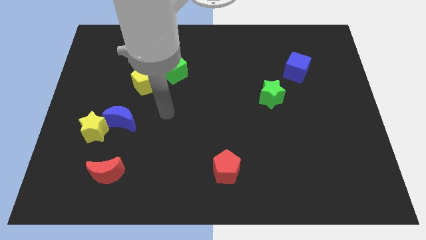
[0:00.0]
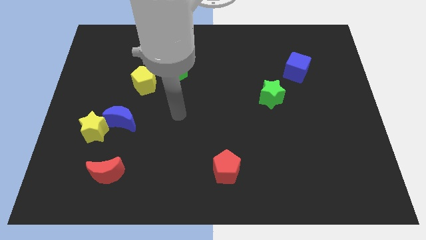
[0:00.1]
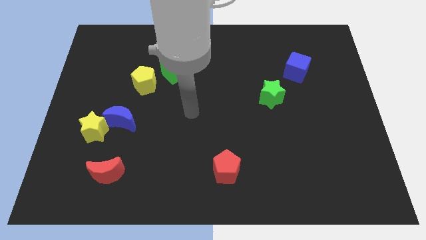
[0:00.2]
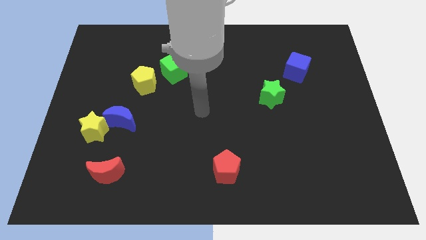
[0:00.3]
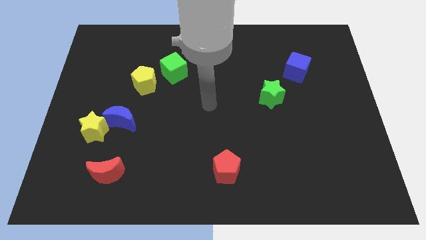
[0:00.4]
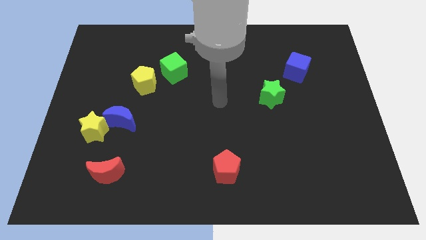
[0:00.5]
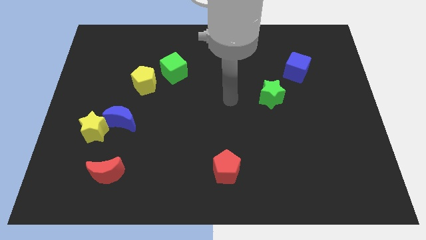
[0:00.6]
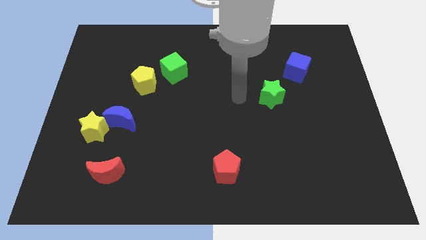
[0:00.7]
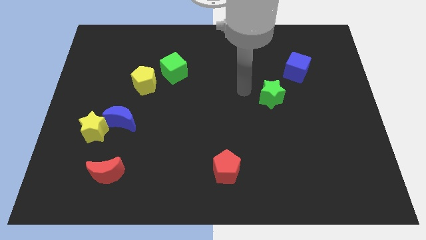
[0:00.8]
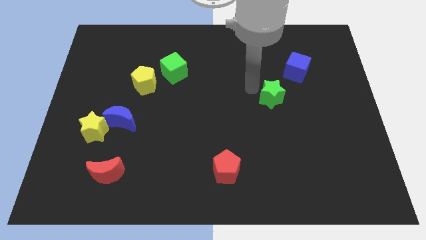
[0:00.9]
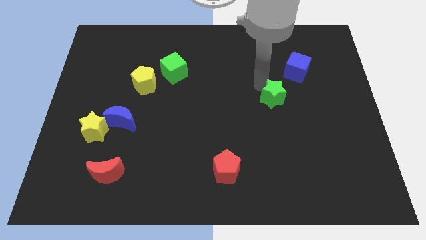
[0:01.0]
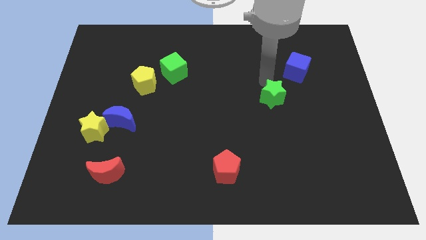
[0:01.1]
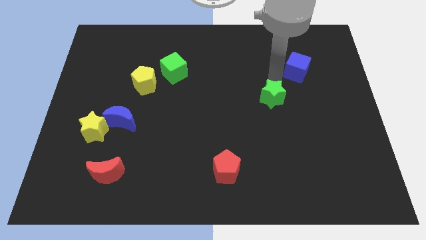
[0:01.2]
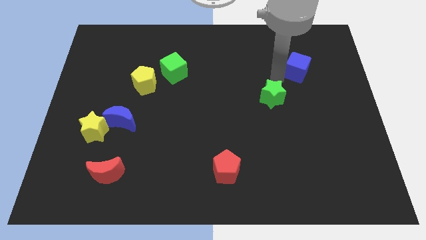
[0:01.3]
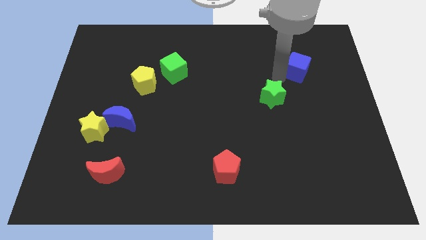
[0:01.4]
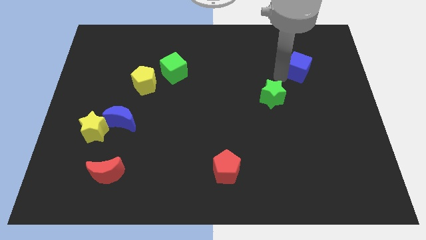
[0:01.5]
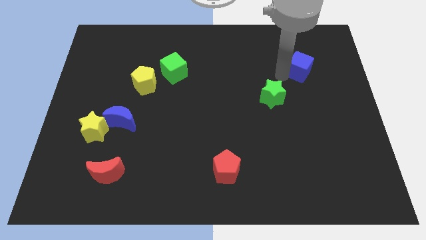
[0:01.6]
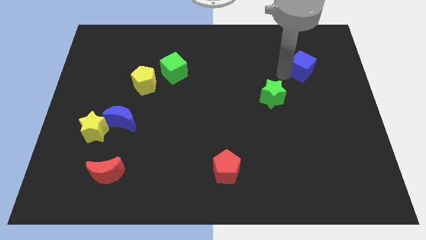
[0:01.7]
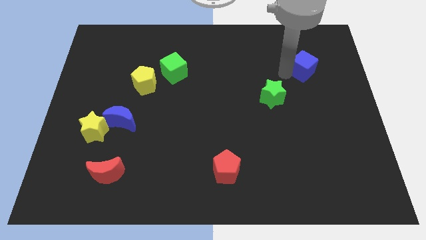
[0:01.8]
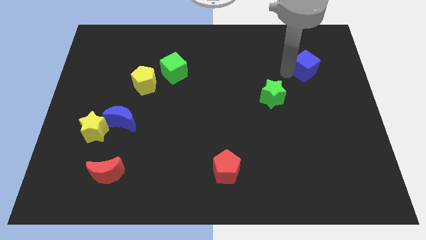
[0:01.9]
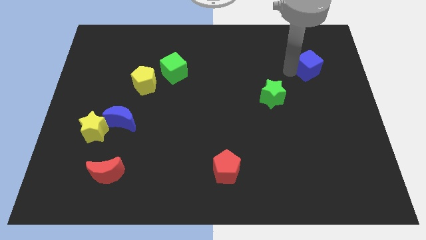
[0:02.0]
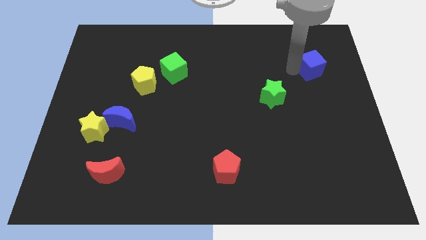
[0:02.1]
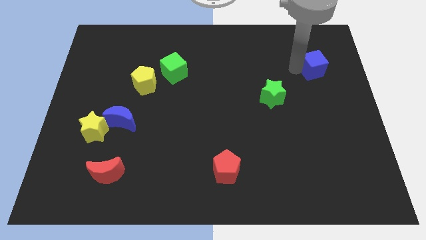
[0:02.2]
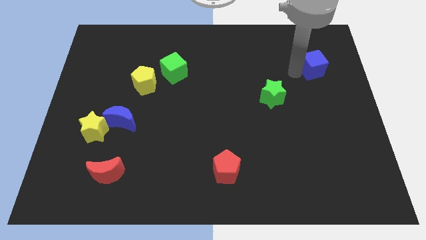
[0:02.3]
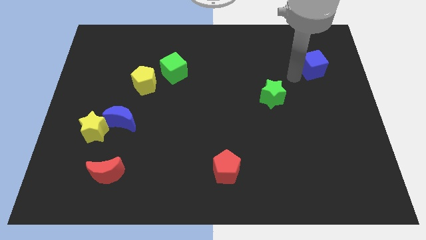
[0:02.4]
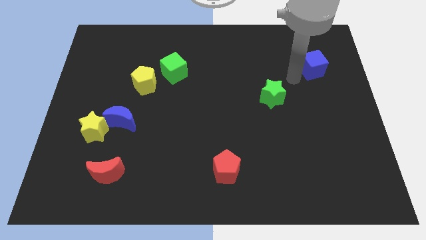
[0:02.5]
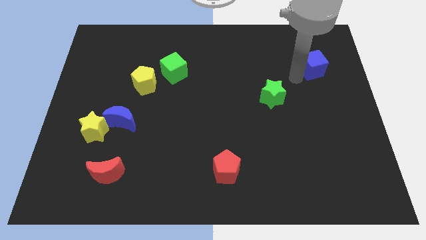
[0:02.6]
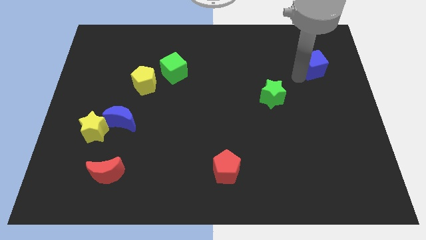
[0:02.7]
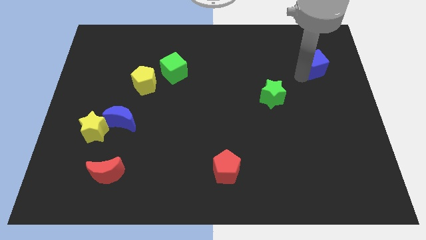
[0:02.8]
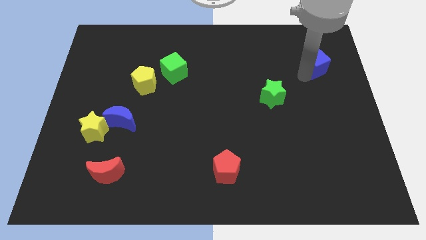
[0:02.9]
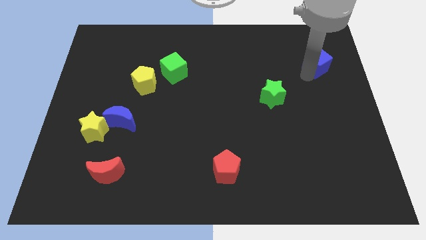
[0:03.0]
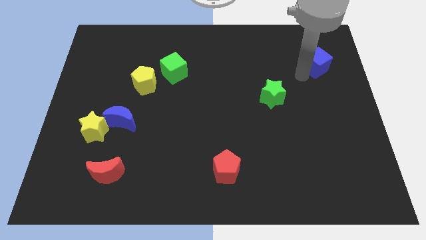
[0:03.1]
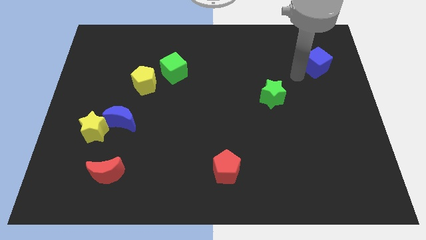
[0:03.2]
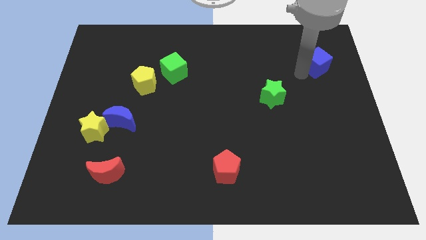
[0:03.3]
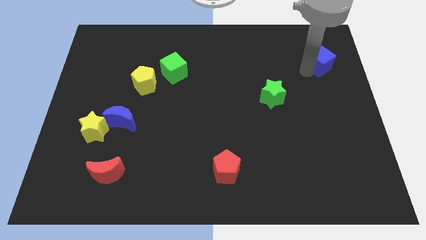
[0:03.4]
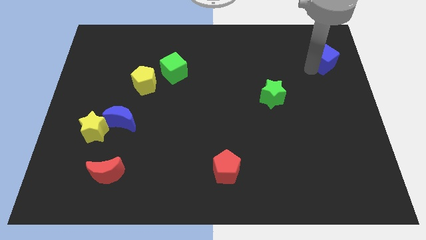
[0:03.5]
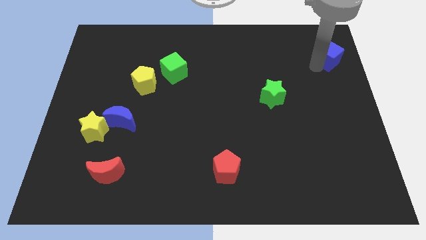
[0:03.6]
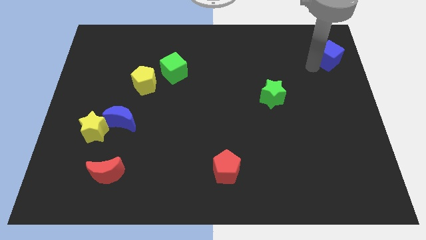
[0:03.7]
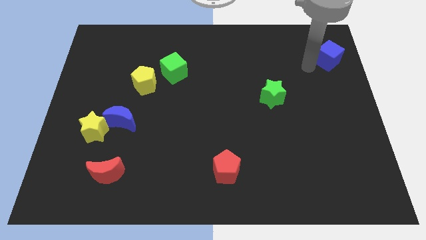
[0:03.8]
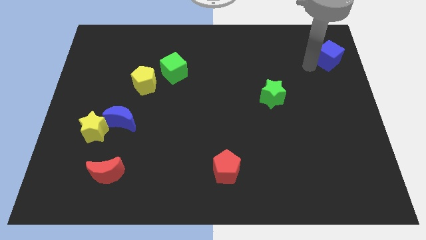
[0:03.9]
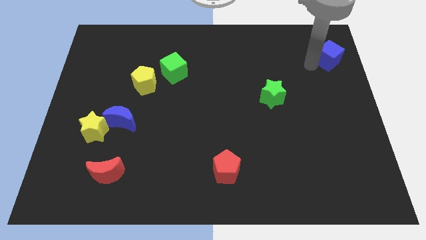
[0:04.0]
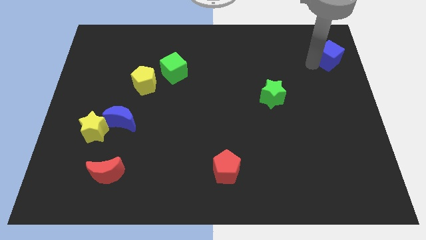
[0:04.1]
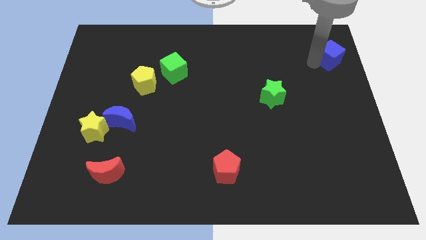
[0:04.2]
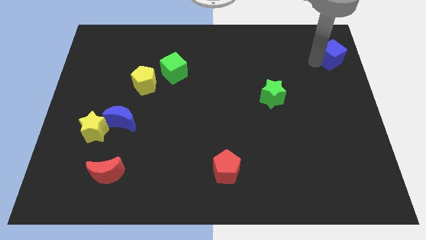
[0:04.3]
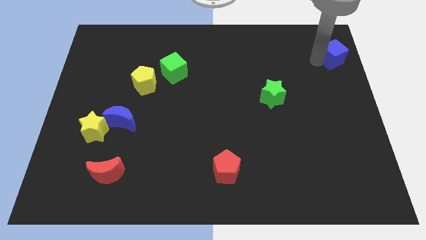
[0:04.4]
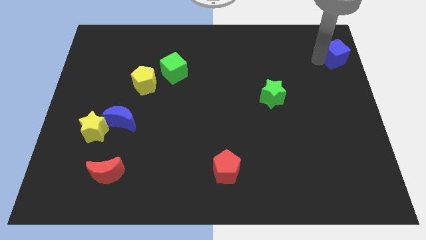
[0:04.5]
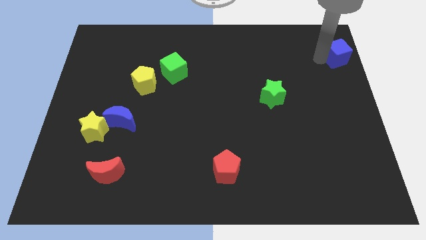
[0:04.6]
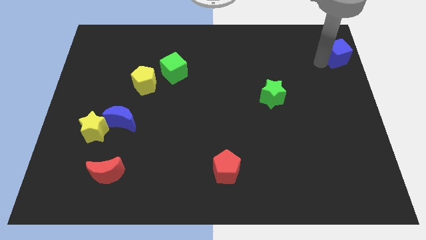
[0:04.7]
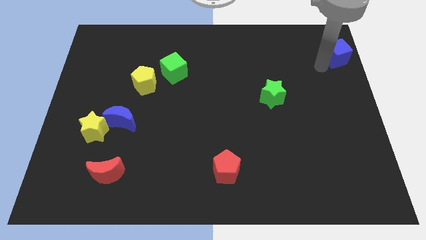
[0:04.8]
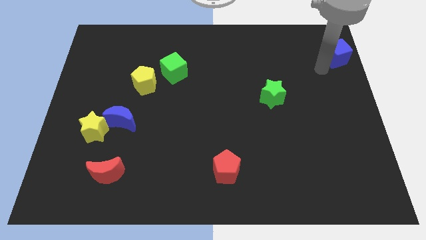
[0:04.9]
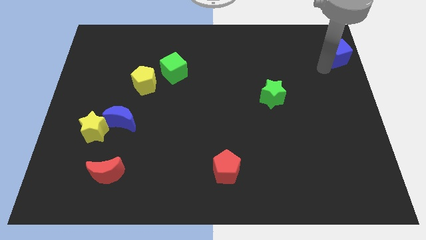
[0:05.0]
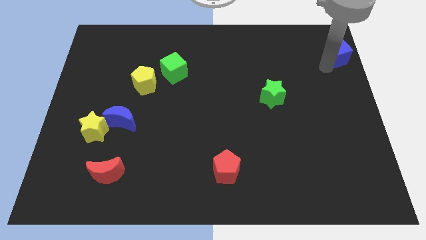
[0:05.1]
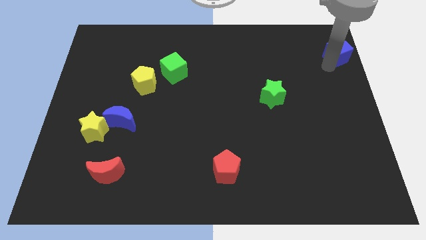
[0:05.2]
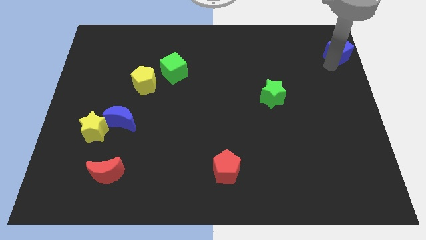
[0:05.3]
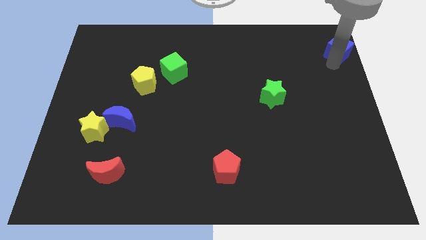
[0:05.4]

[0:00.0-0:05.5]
put the blue cube to the top right corner

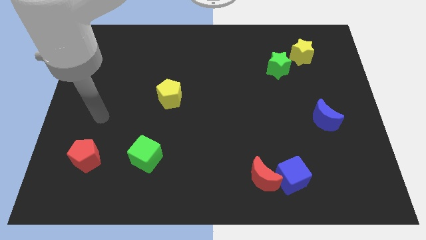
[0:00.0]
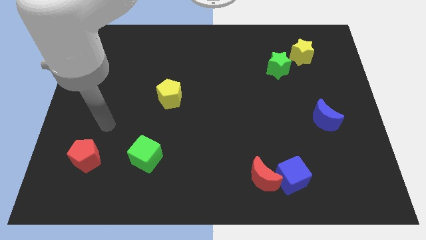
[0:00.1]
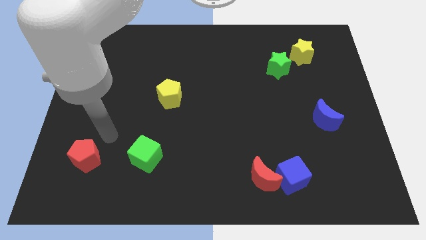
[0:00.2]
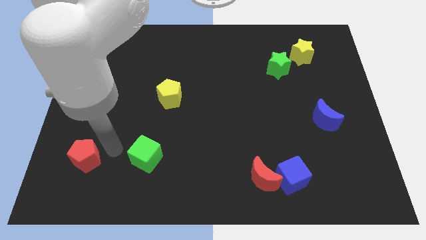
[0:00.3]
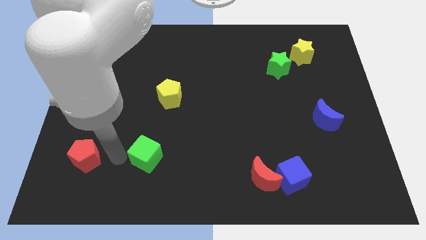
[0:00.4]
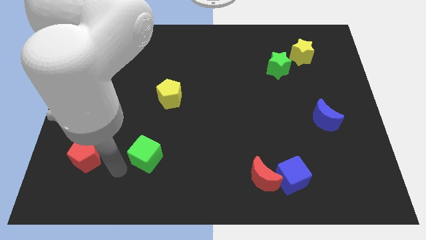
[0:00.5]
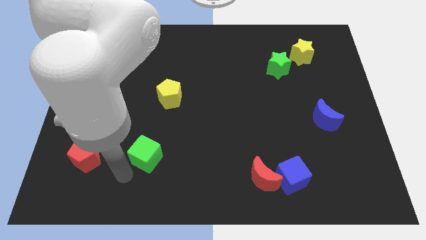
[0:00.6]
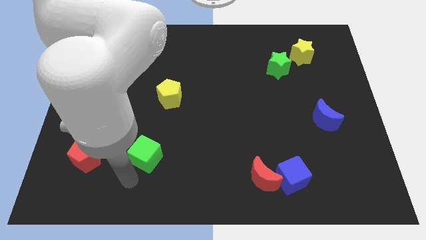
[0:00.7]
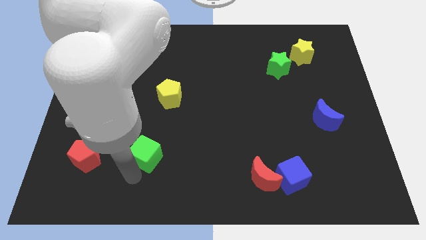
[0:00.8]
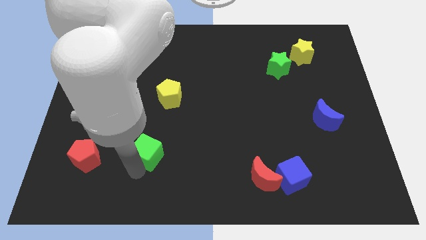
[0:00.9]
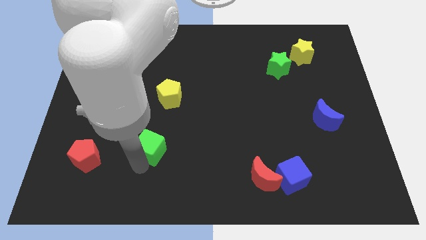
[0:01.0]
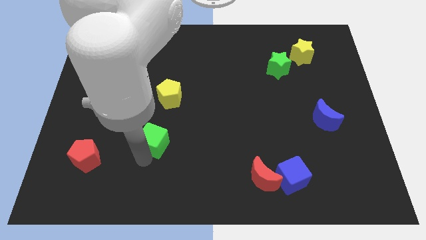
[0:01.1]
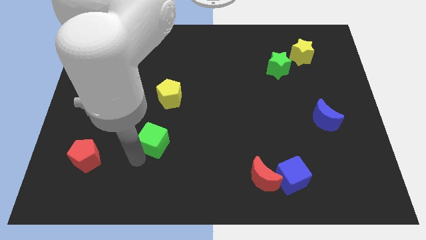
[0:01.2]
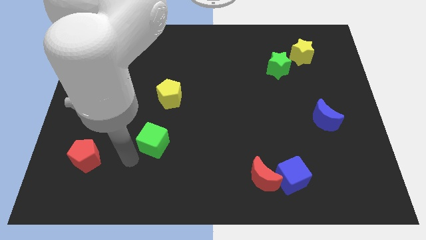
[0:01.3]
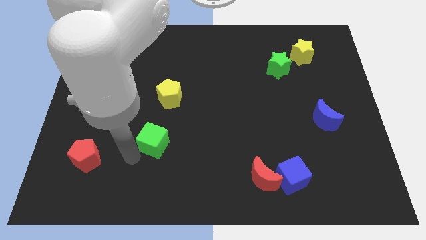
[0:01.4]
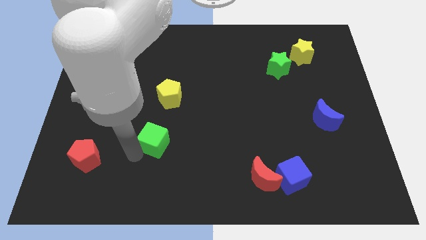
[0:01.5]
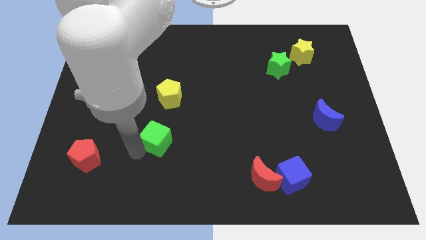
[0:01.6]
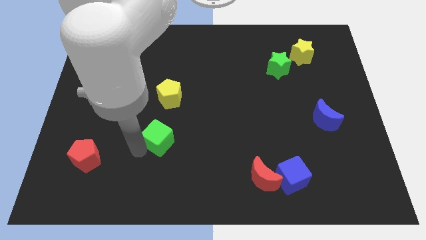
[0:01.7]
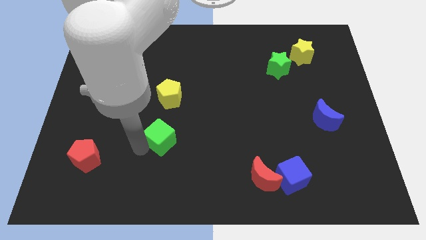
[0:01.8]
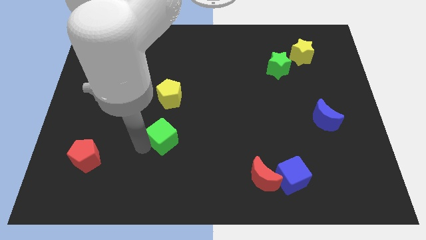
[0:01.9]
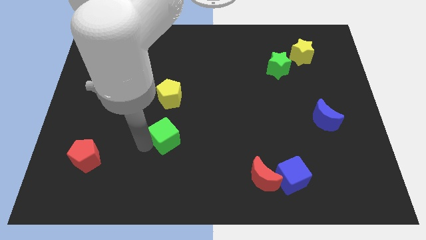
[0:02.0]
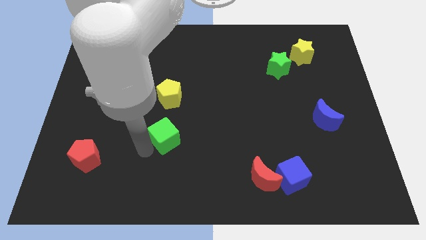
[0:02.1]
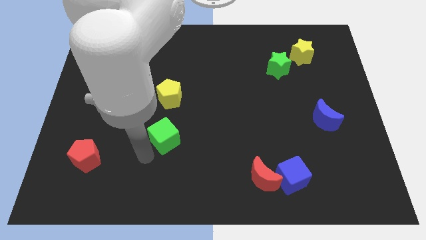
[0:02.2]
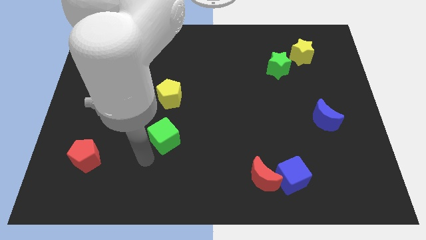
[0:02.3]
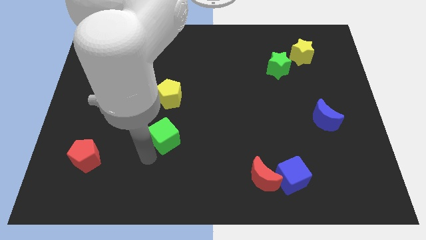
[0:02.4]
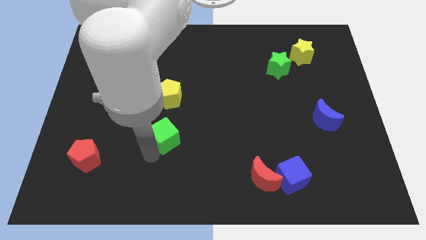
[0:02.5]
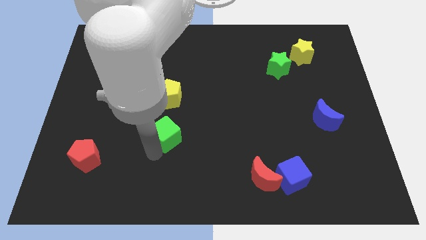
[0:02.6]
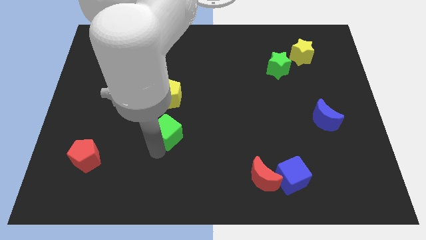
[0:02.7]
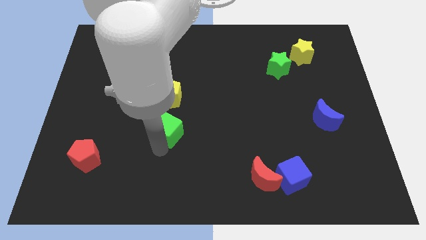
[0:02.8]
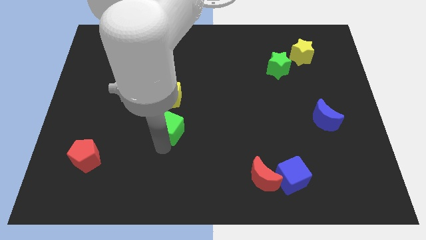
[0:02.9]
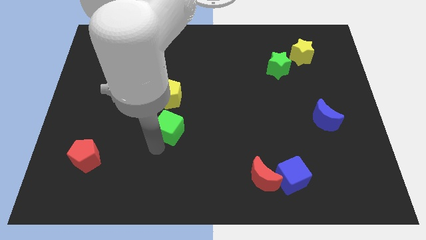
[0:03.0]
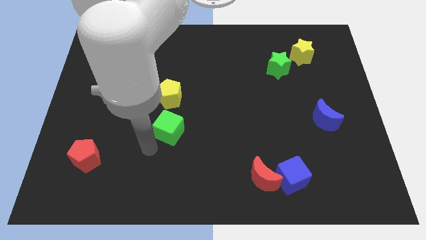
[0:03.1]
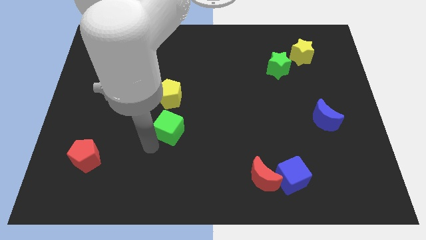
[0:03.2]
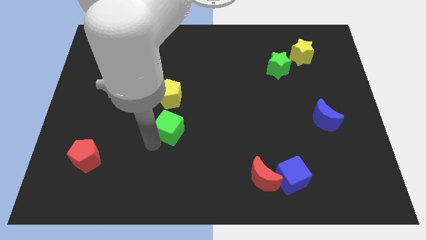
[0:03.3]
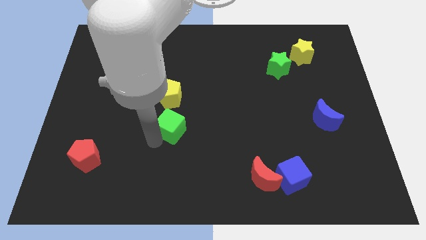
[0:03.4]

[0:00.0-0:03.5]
move the green cube to the middle of the board
